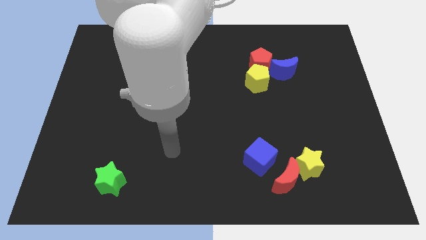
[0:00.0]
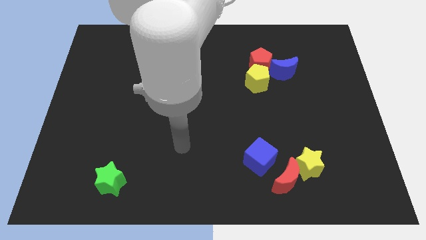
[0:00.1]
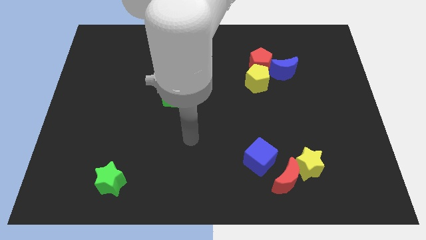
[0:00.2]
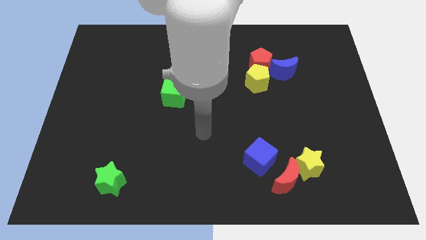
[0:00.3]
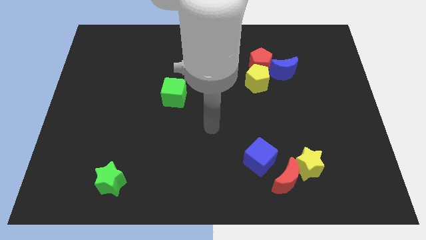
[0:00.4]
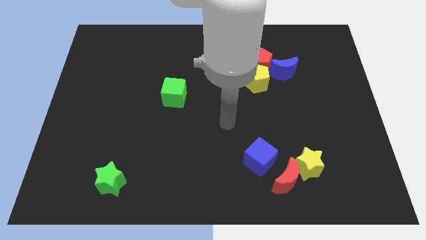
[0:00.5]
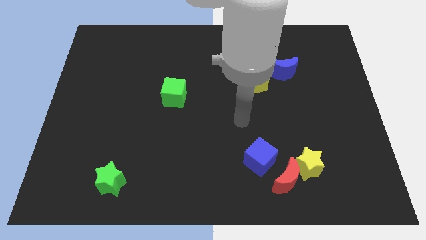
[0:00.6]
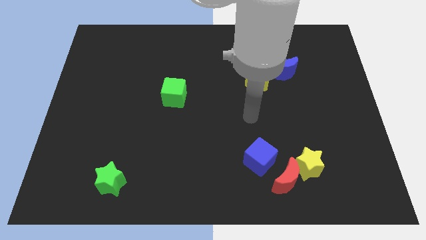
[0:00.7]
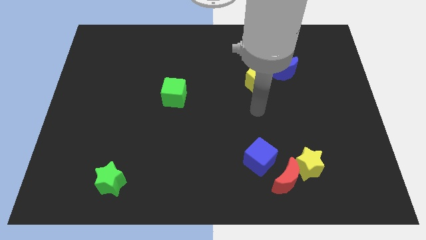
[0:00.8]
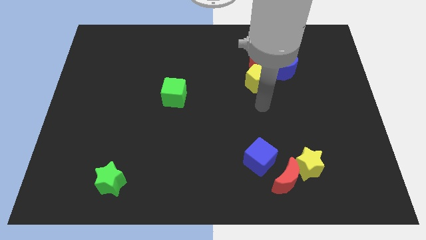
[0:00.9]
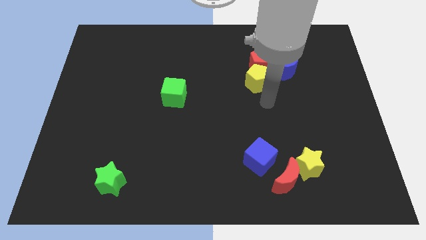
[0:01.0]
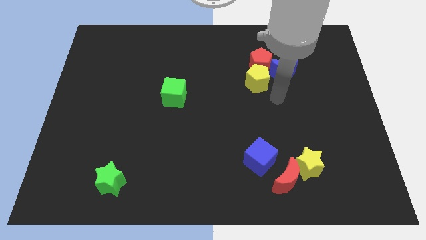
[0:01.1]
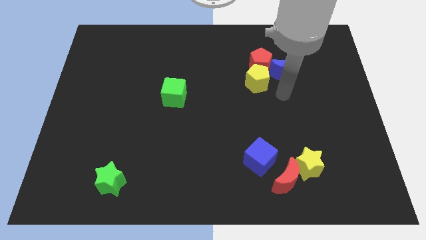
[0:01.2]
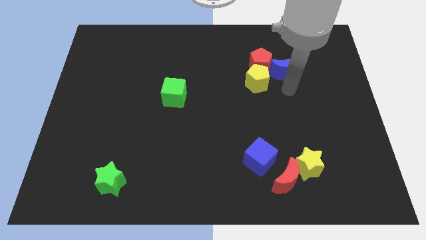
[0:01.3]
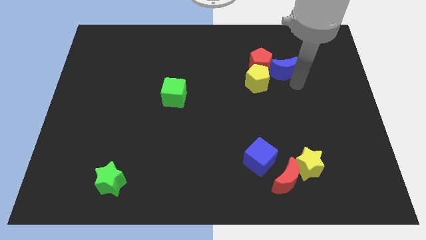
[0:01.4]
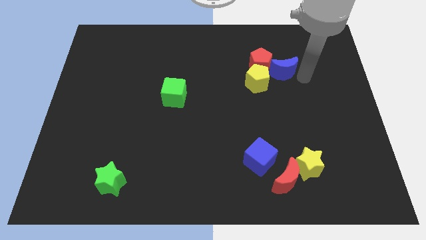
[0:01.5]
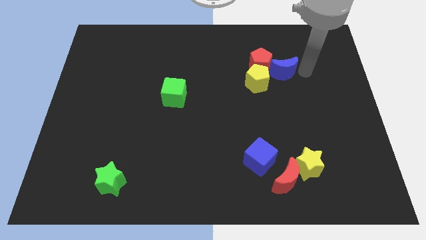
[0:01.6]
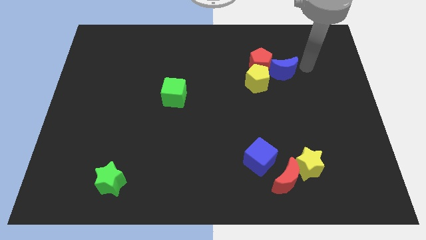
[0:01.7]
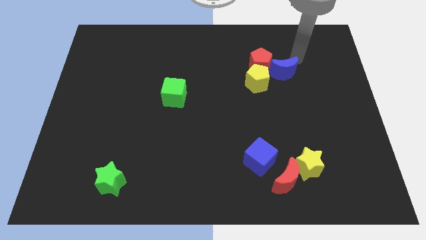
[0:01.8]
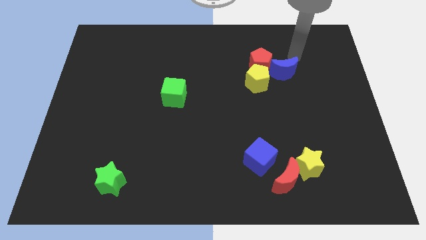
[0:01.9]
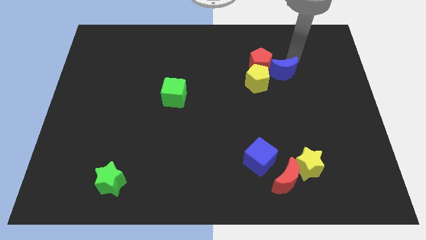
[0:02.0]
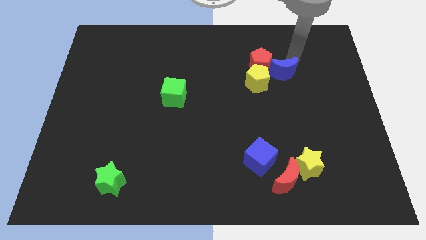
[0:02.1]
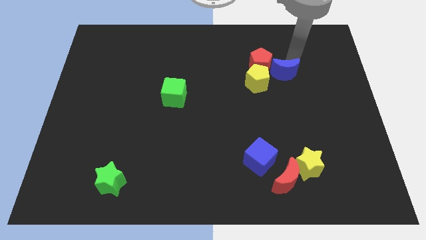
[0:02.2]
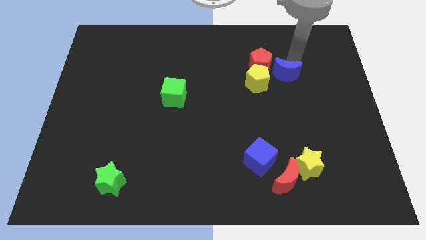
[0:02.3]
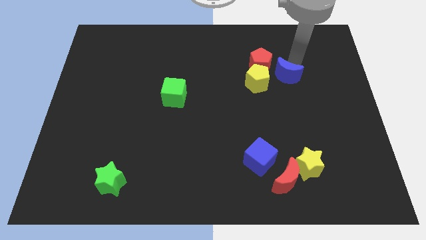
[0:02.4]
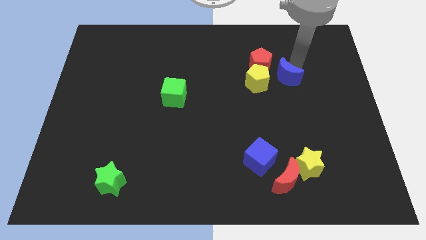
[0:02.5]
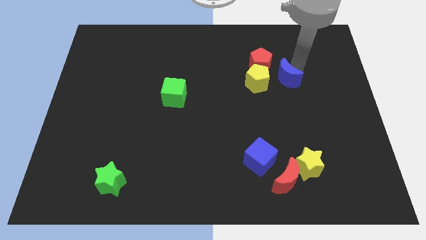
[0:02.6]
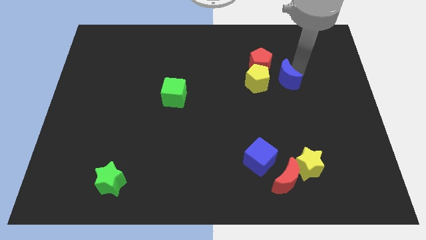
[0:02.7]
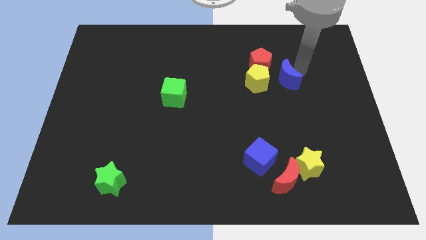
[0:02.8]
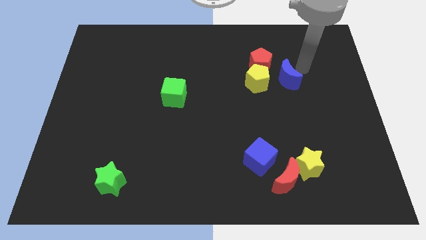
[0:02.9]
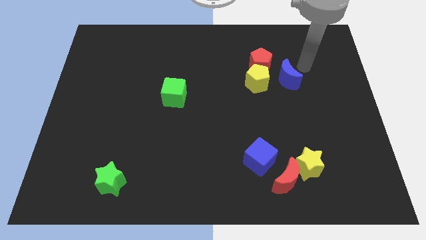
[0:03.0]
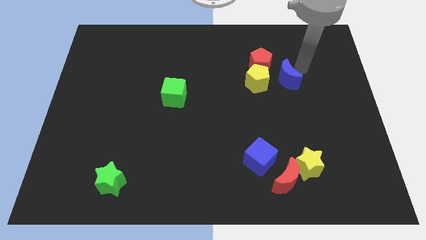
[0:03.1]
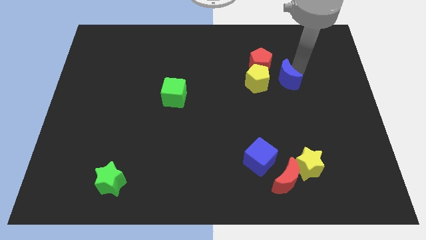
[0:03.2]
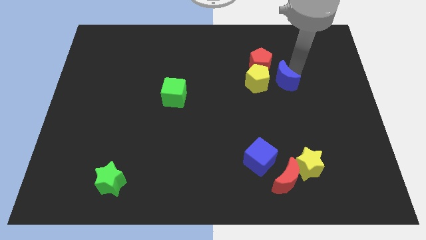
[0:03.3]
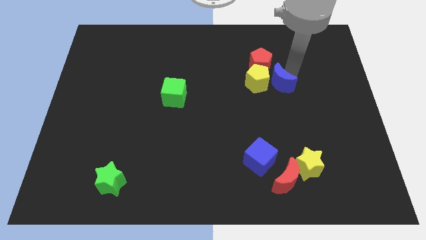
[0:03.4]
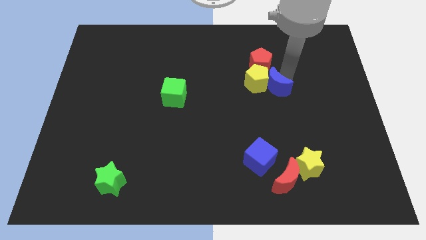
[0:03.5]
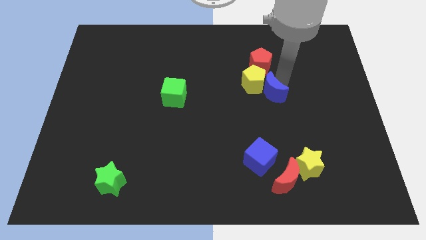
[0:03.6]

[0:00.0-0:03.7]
move the blue moon diagonally down and to the left a little

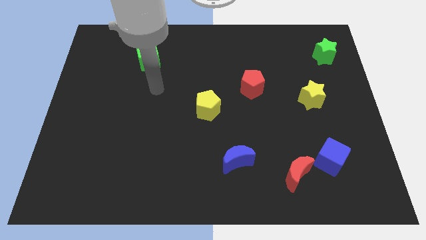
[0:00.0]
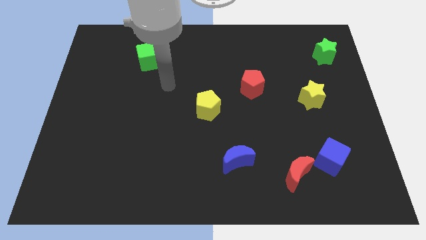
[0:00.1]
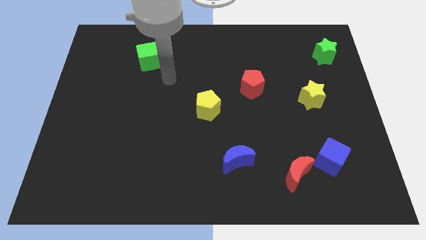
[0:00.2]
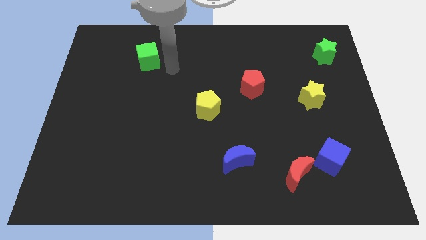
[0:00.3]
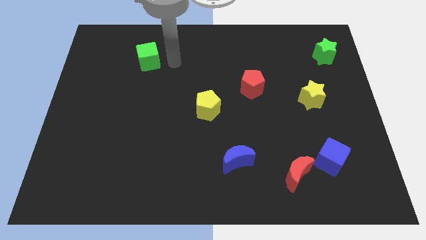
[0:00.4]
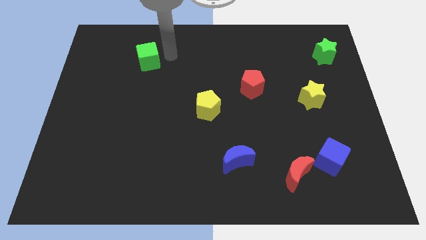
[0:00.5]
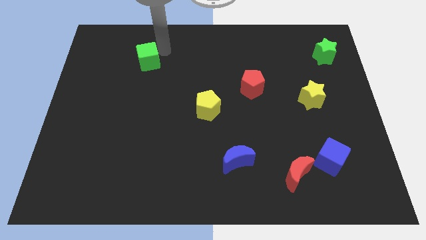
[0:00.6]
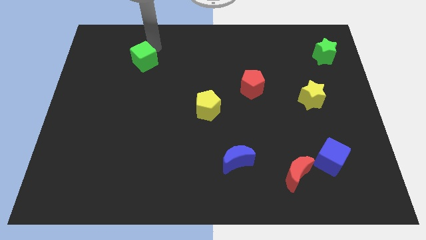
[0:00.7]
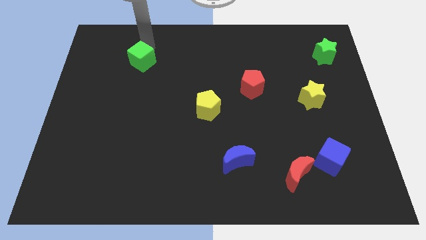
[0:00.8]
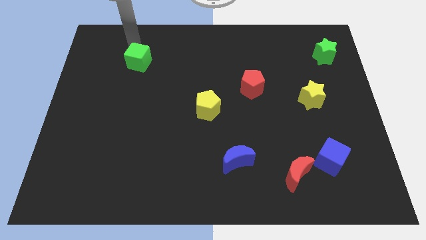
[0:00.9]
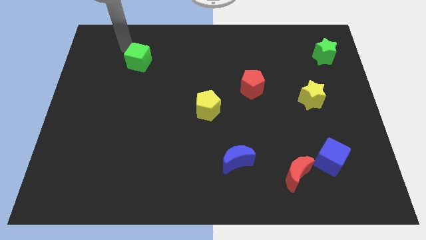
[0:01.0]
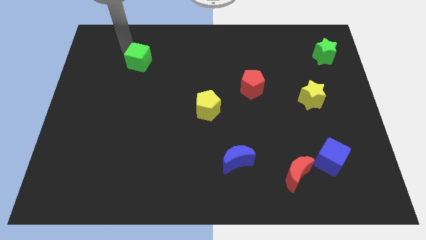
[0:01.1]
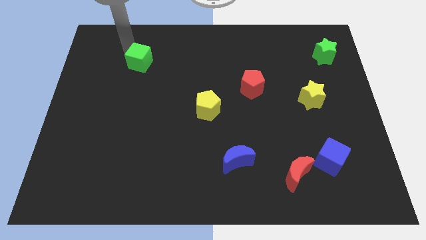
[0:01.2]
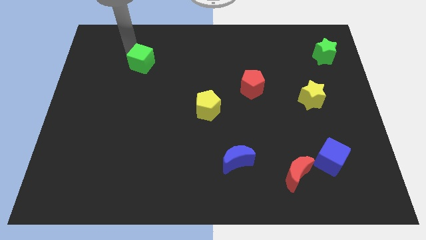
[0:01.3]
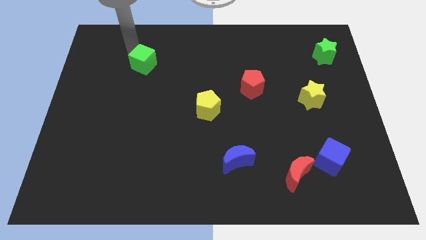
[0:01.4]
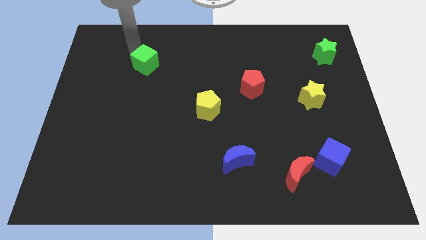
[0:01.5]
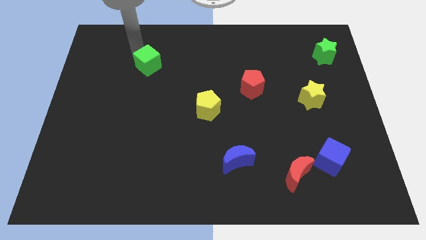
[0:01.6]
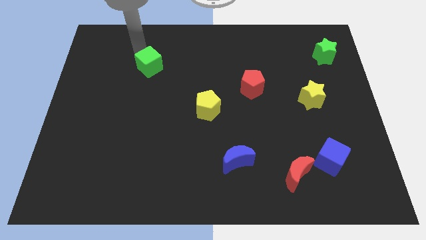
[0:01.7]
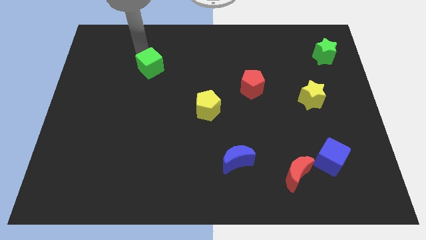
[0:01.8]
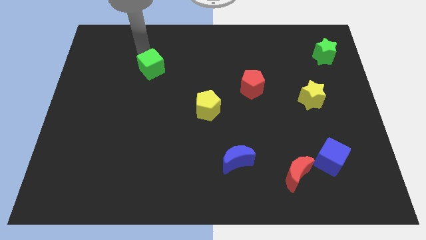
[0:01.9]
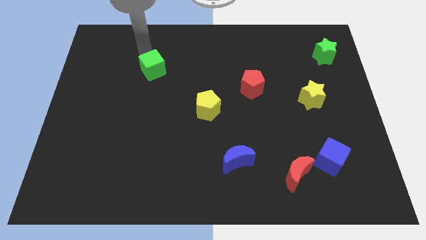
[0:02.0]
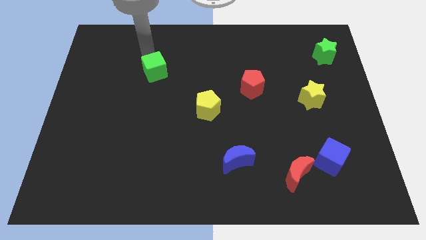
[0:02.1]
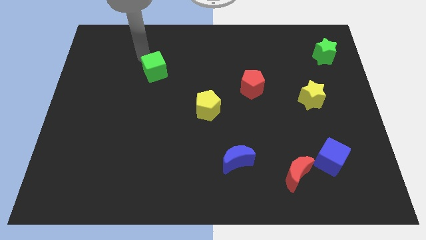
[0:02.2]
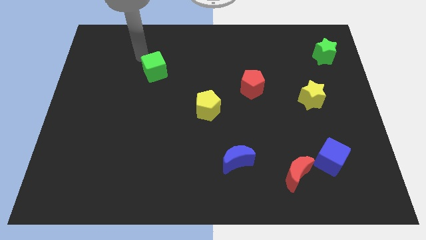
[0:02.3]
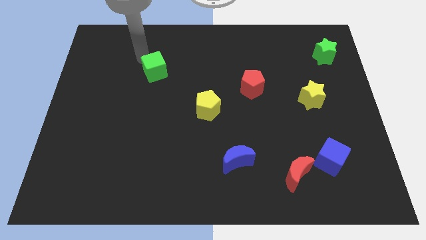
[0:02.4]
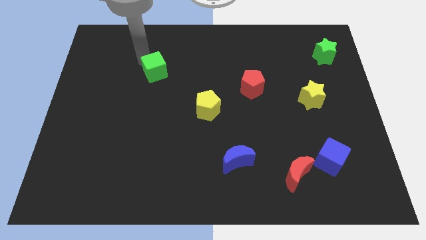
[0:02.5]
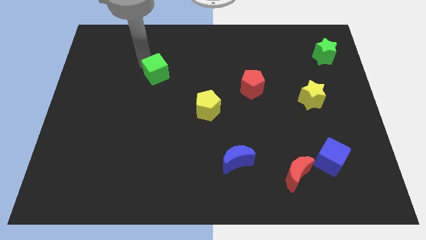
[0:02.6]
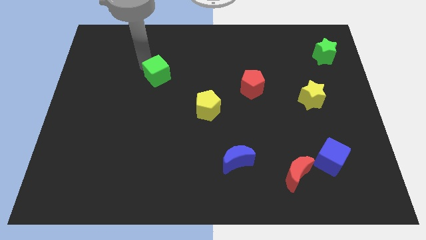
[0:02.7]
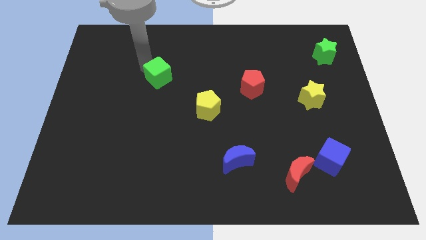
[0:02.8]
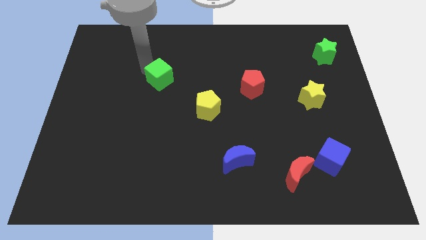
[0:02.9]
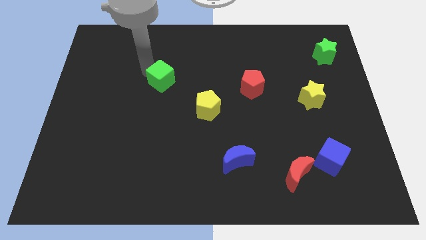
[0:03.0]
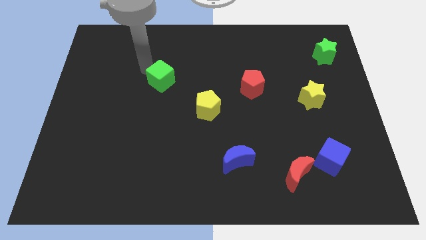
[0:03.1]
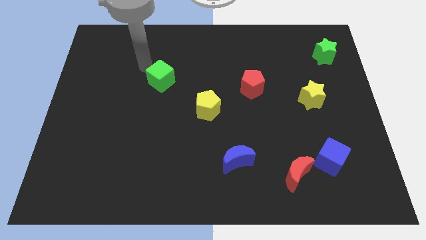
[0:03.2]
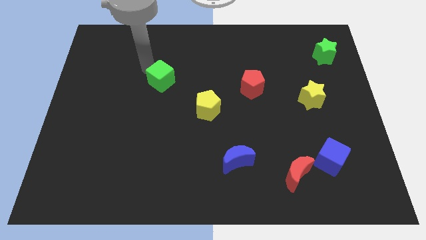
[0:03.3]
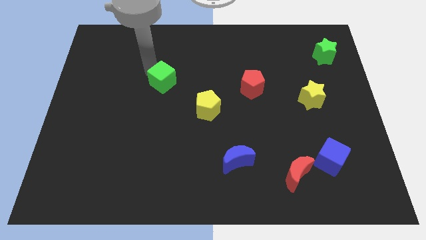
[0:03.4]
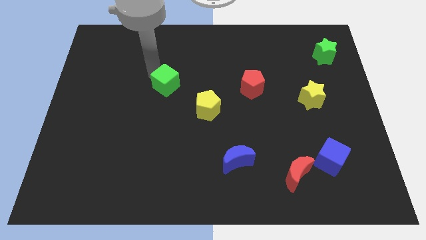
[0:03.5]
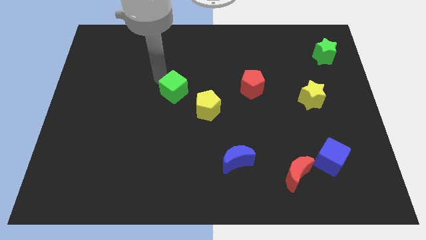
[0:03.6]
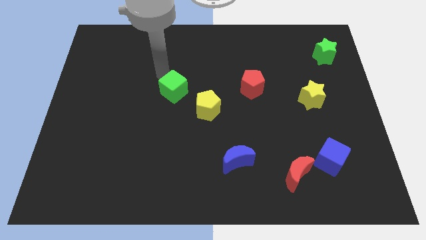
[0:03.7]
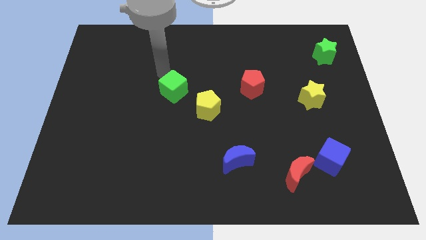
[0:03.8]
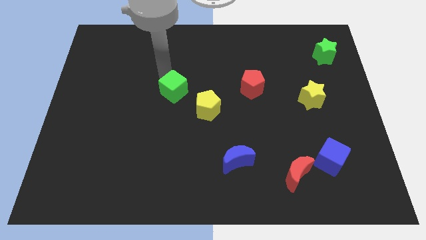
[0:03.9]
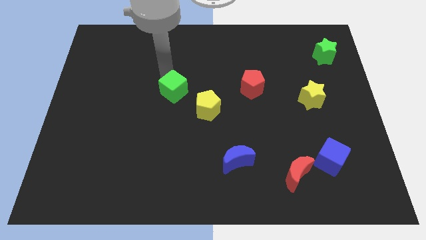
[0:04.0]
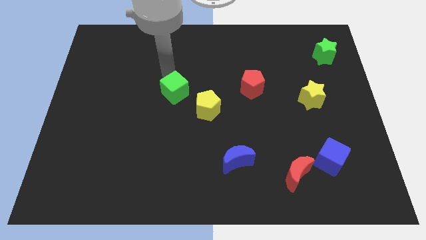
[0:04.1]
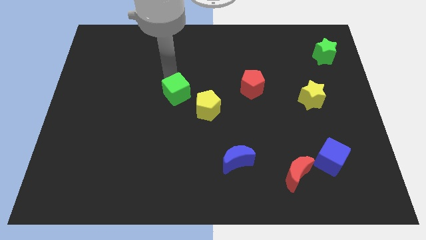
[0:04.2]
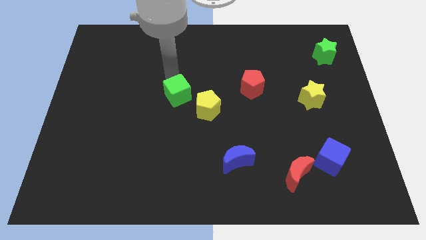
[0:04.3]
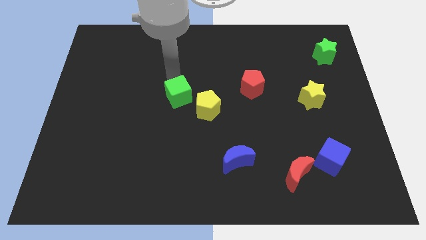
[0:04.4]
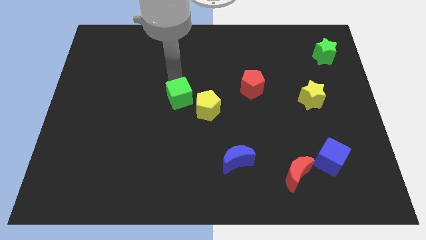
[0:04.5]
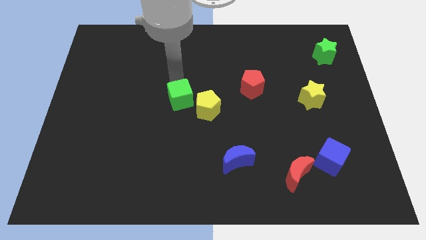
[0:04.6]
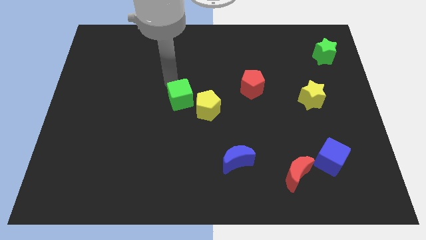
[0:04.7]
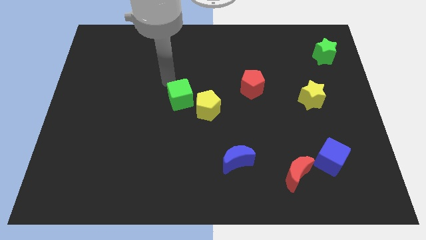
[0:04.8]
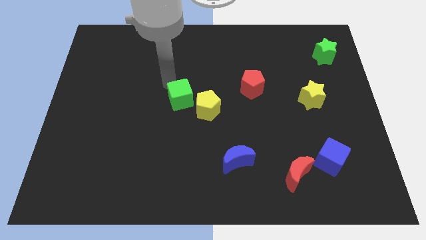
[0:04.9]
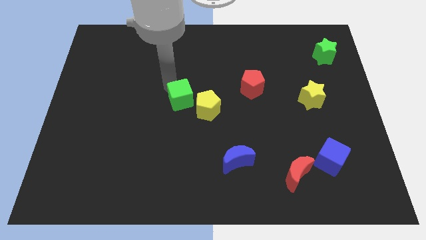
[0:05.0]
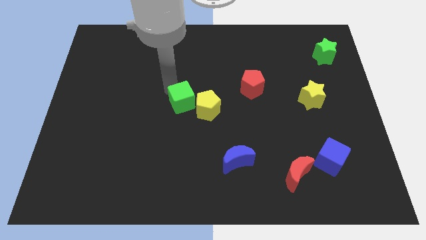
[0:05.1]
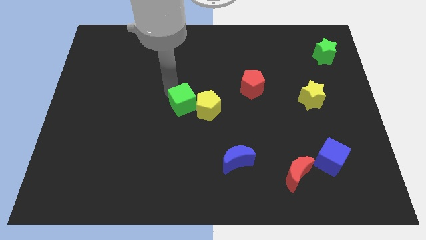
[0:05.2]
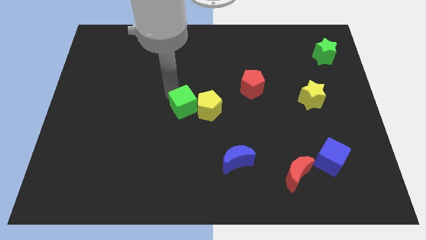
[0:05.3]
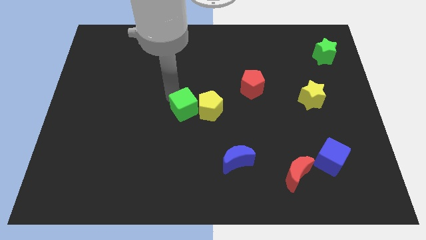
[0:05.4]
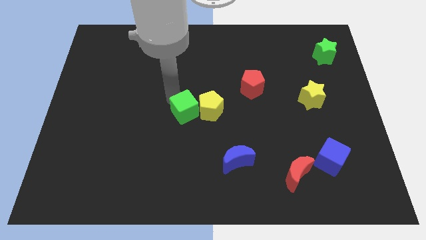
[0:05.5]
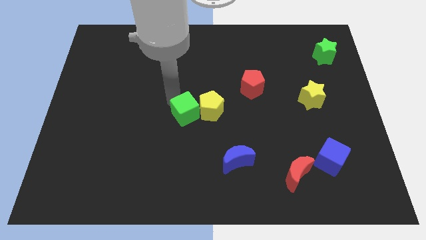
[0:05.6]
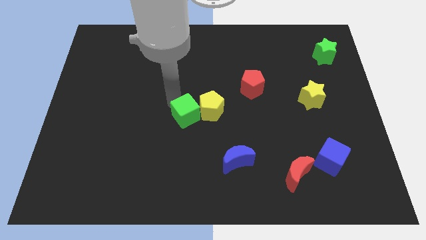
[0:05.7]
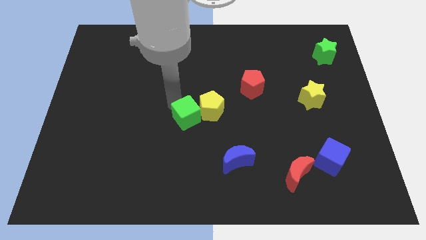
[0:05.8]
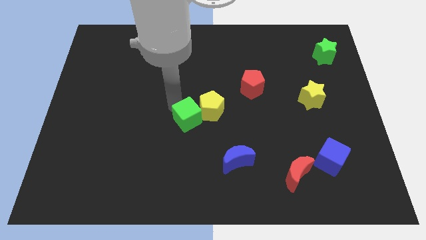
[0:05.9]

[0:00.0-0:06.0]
slide the green cube diagonally downwards and right
